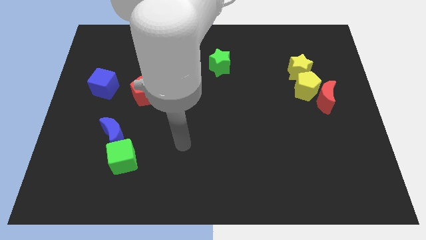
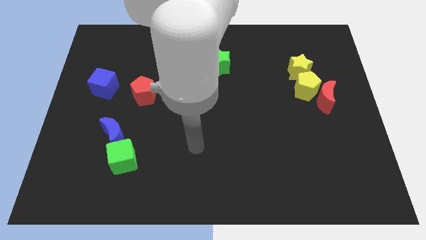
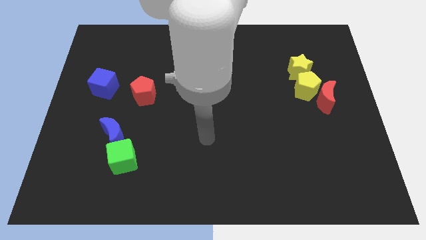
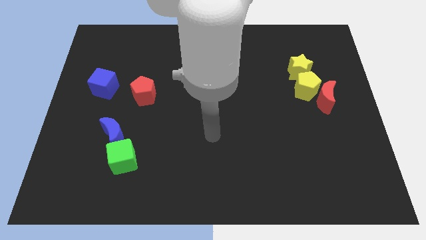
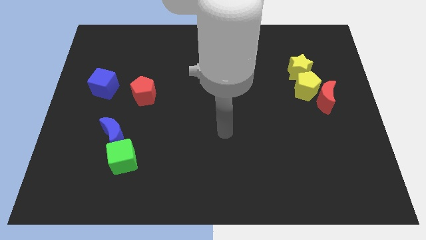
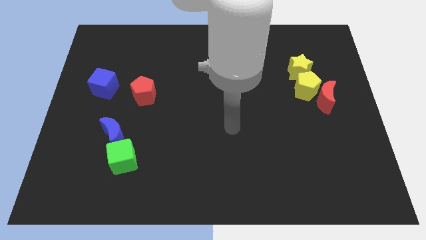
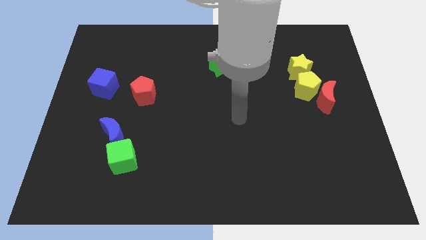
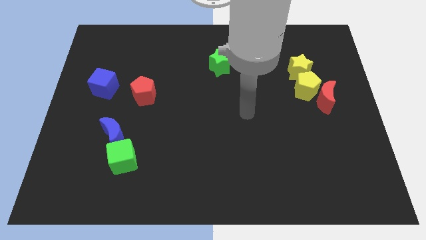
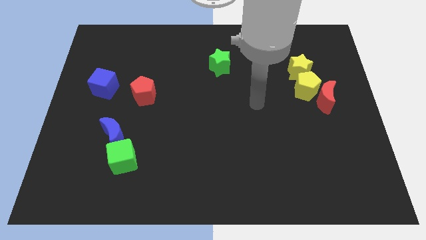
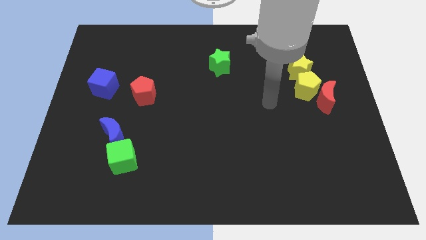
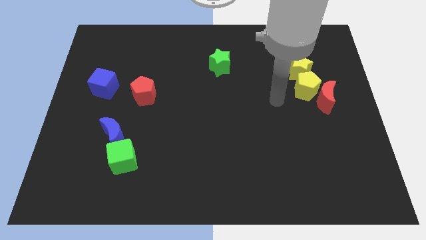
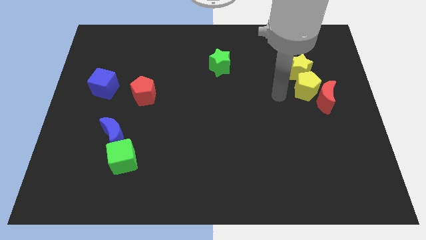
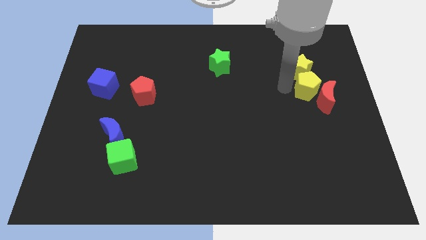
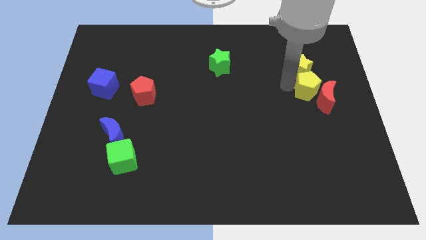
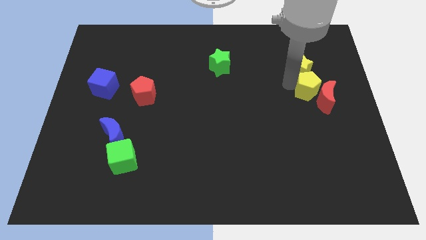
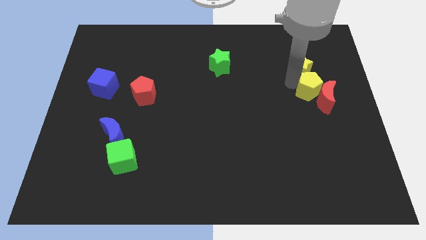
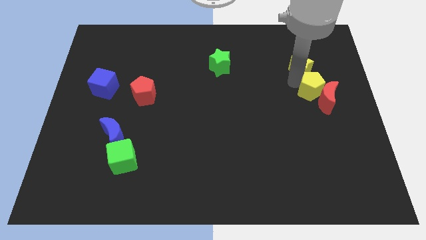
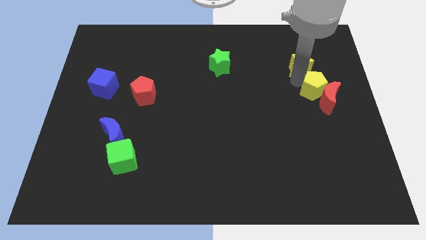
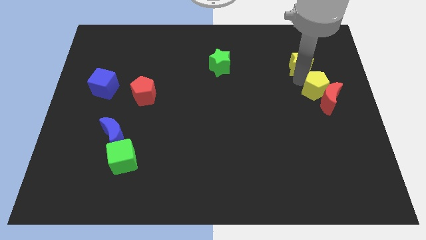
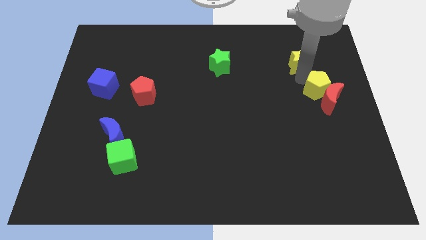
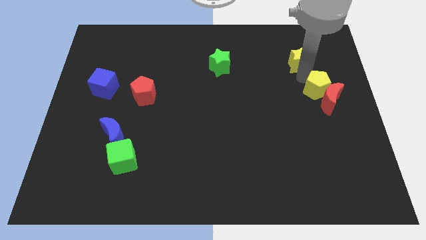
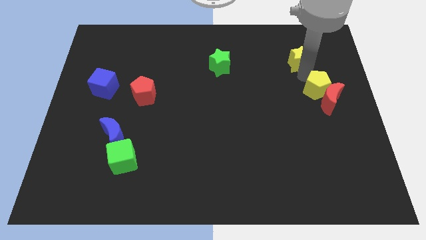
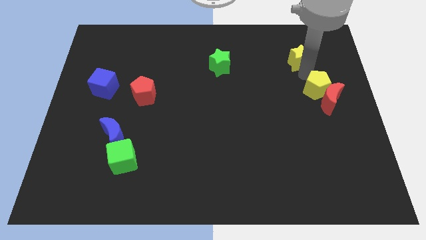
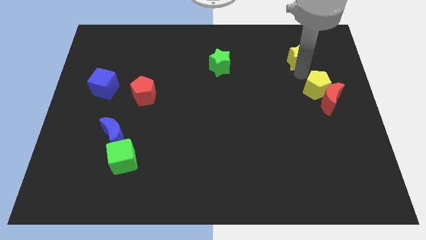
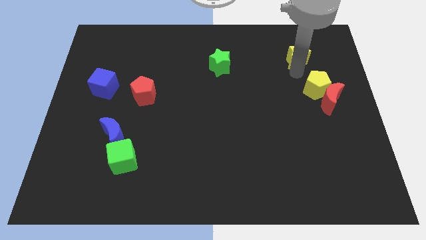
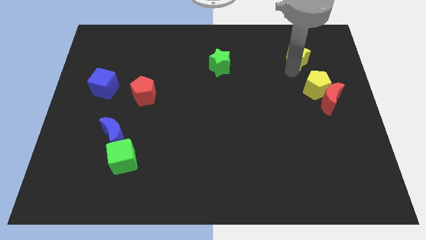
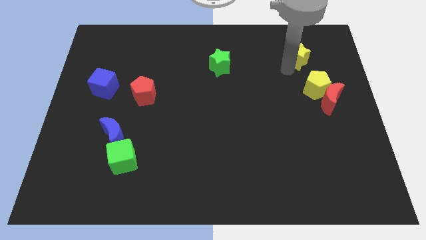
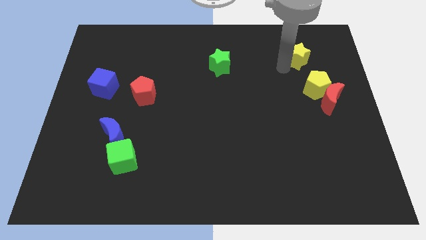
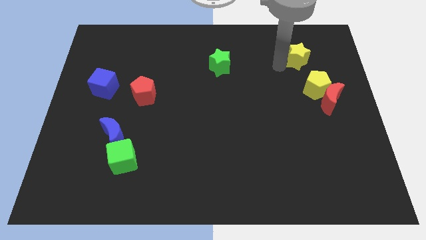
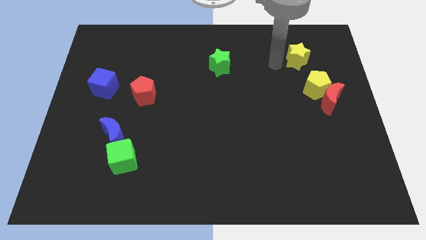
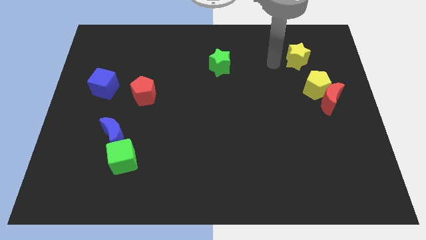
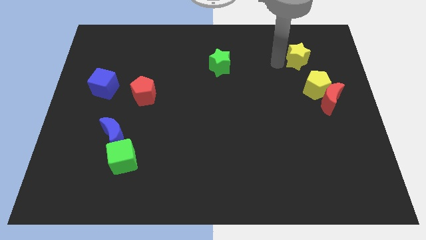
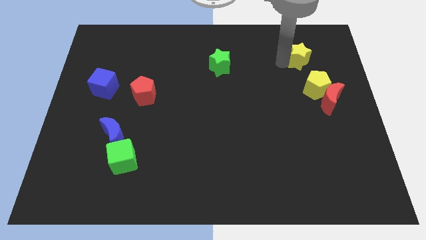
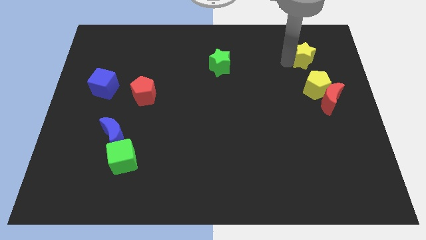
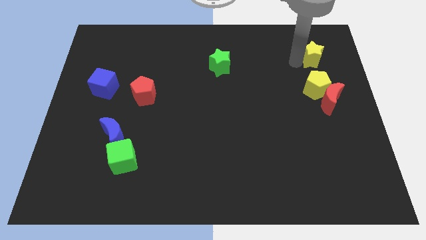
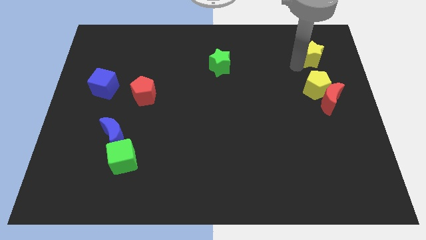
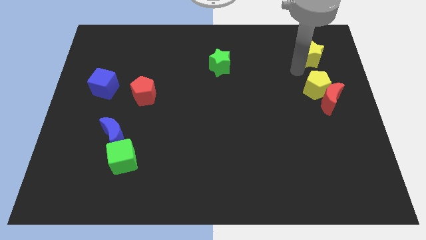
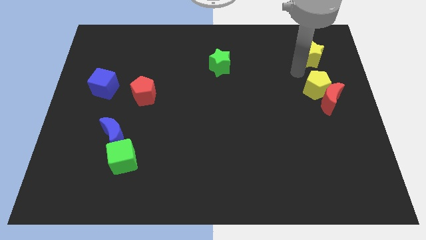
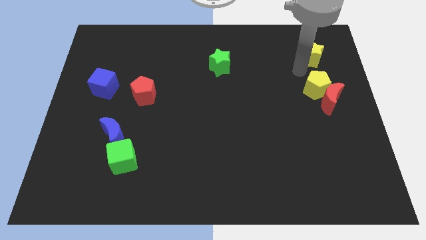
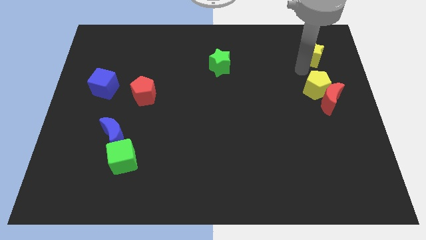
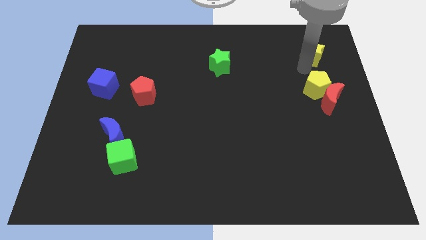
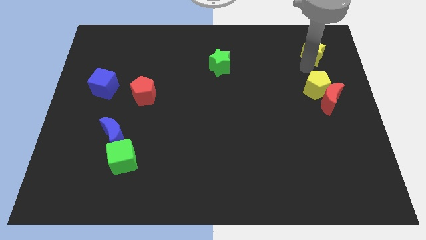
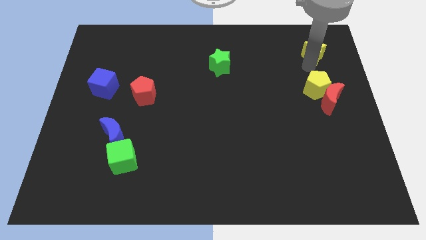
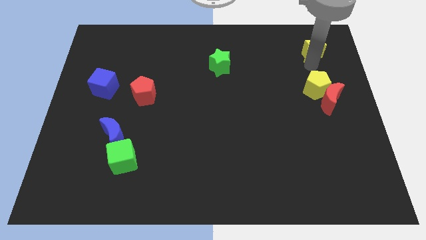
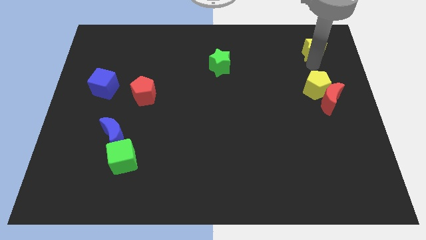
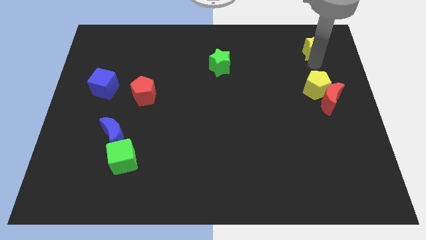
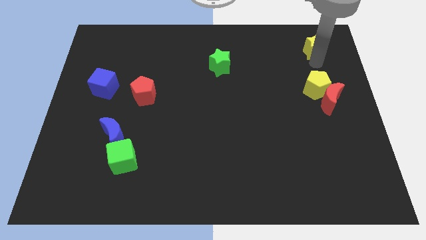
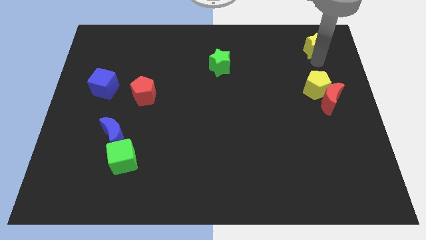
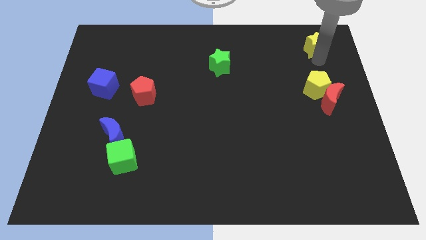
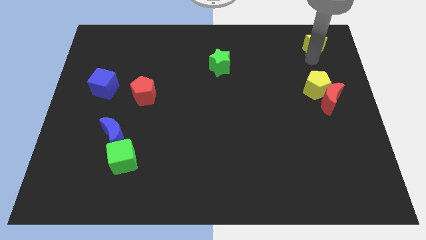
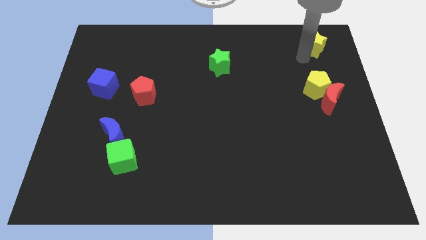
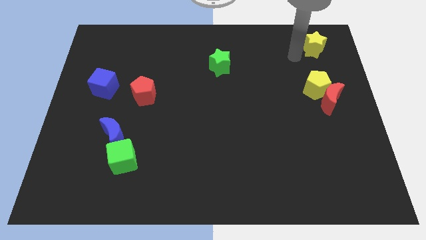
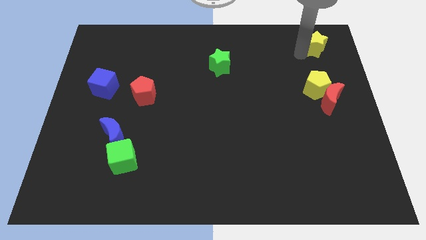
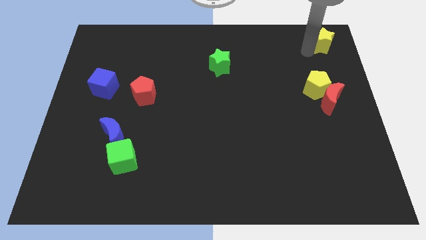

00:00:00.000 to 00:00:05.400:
put the yellow star to the top right

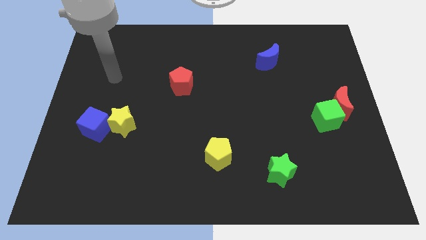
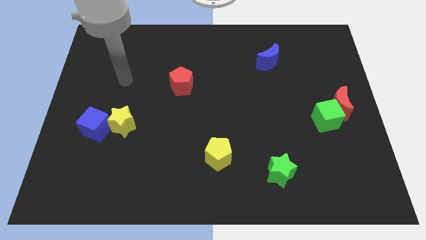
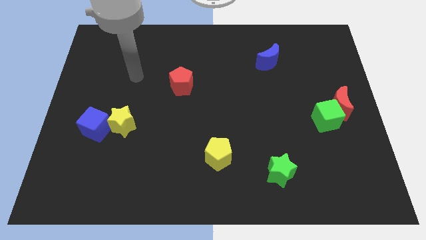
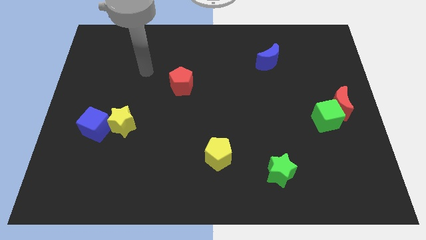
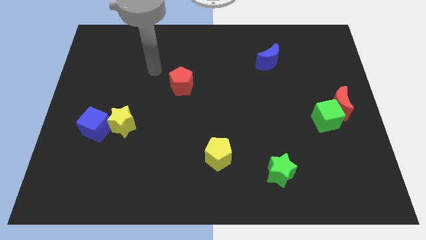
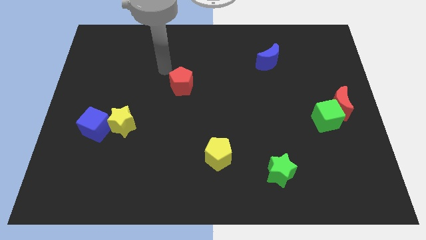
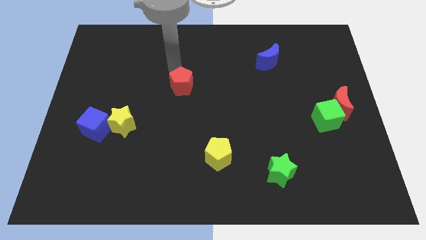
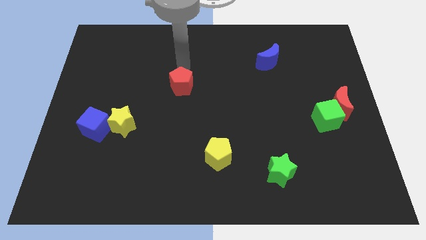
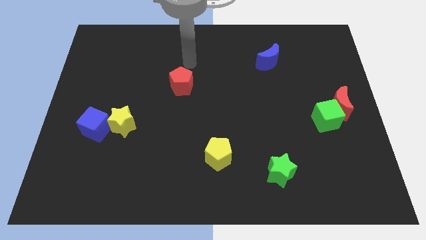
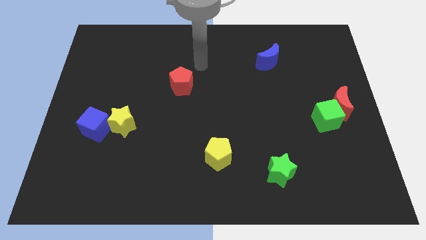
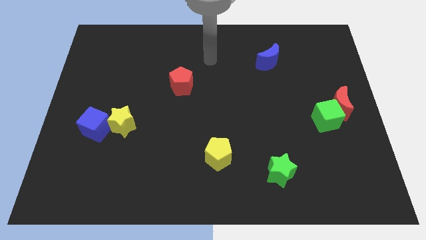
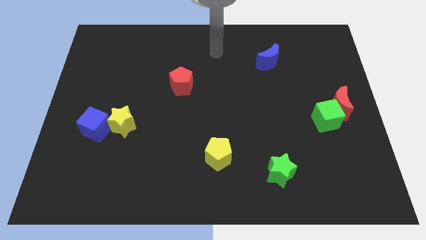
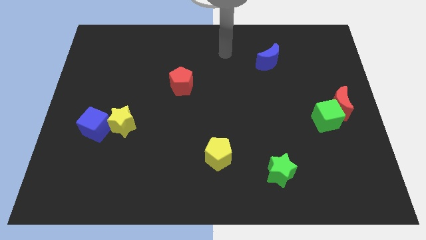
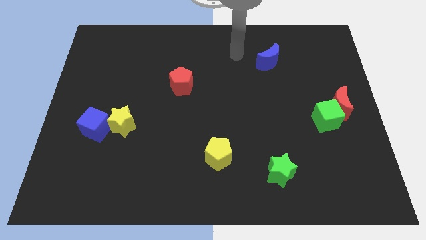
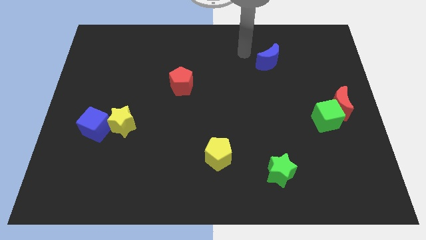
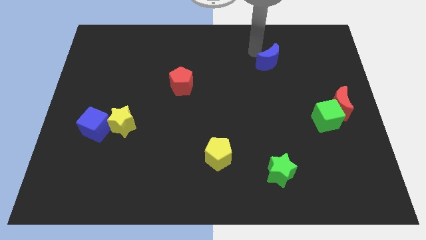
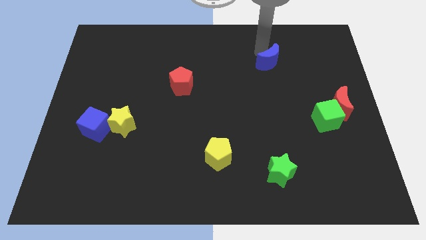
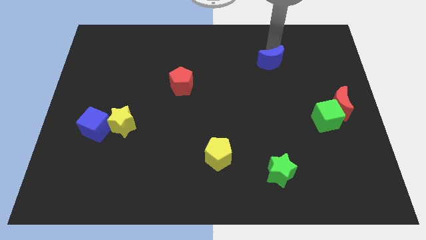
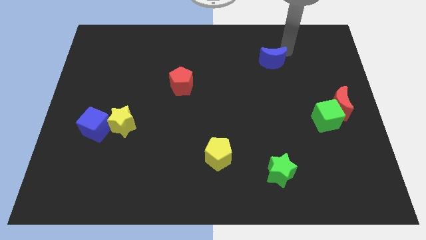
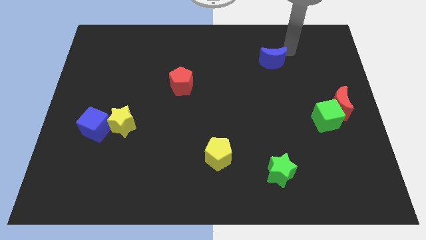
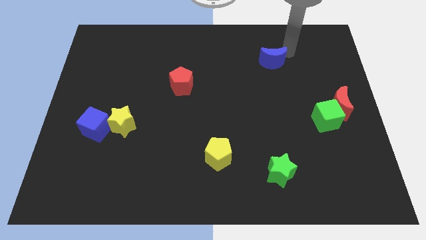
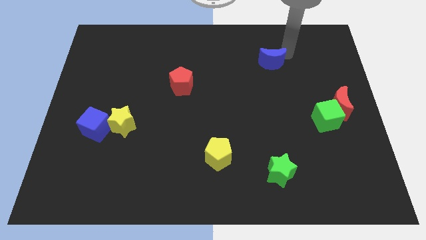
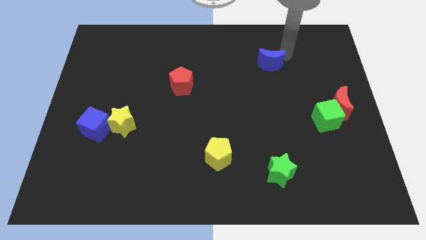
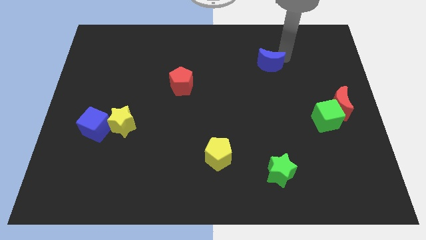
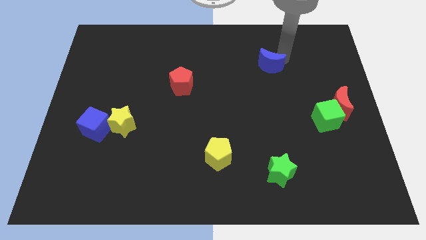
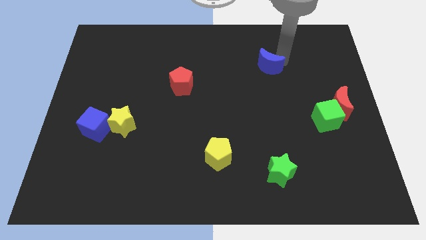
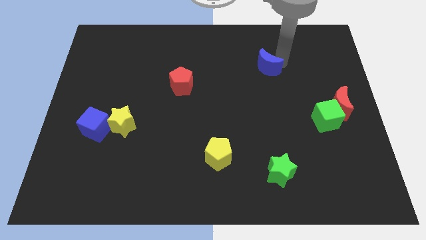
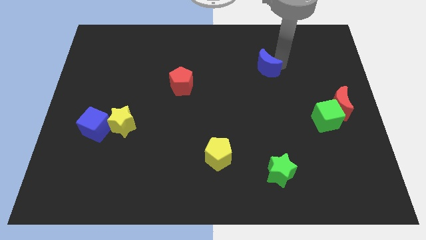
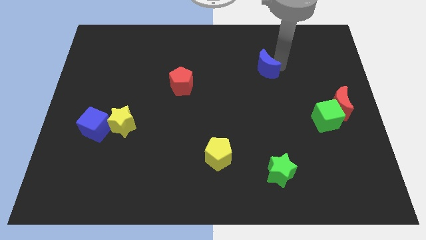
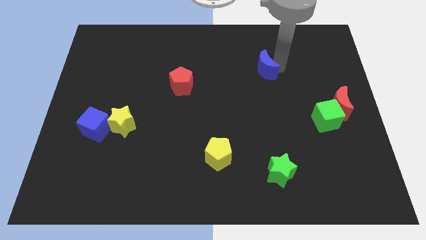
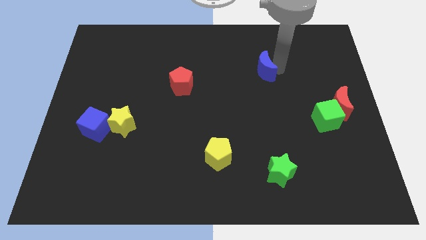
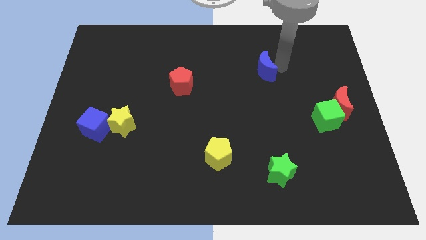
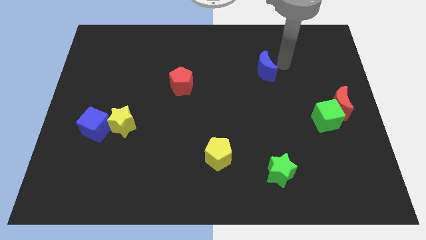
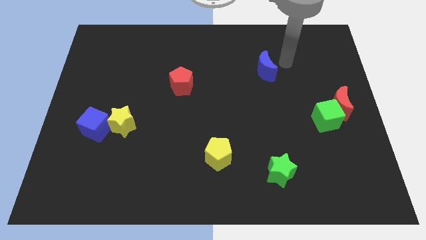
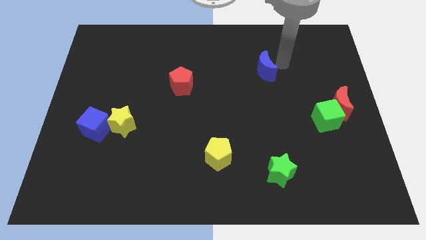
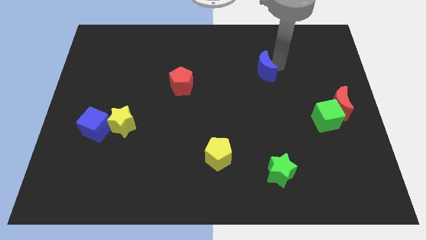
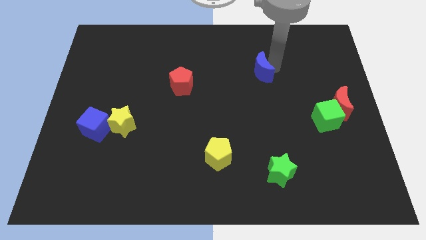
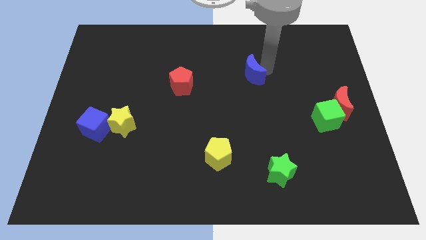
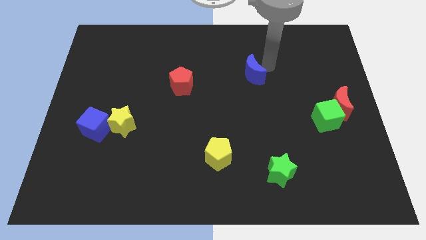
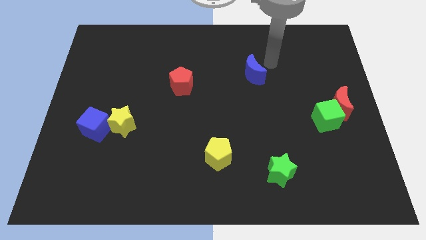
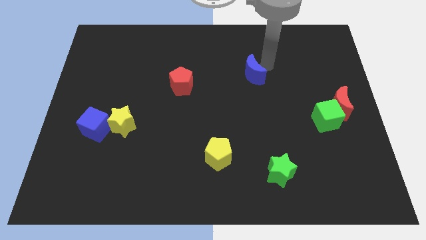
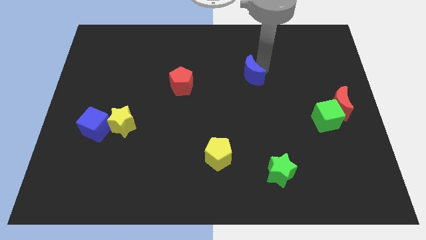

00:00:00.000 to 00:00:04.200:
move the blue moon to the center
